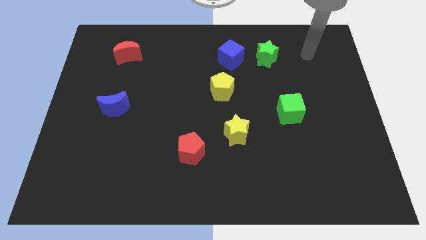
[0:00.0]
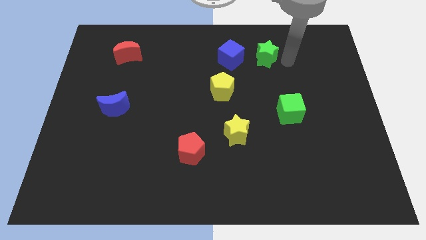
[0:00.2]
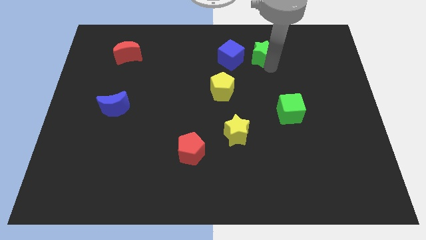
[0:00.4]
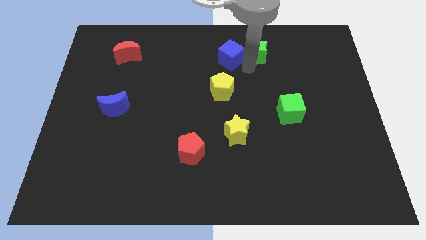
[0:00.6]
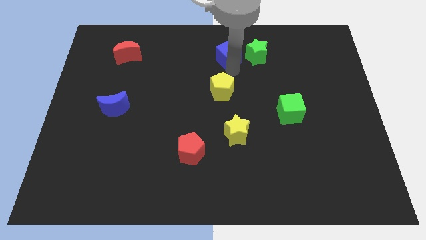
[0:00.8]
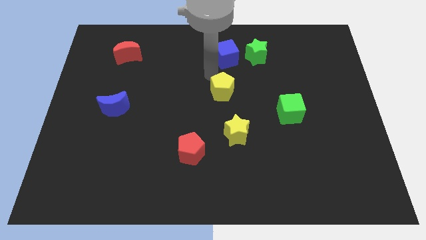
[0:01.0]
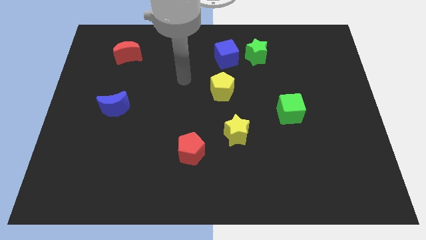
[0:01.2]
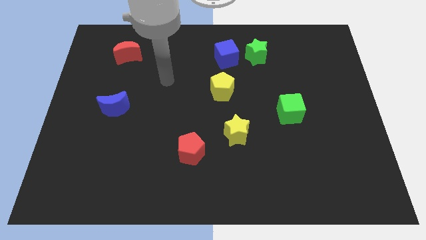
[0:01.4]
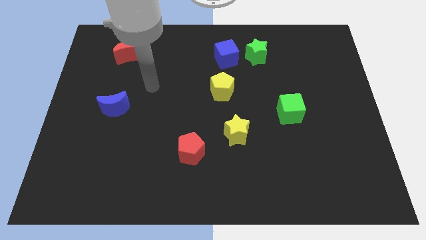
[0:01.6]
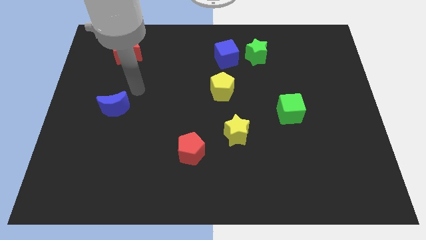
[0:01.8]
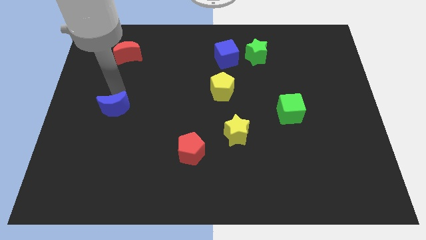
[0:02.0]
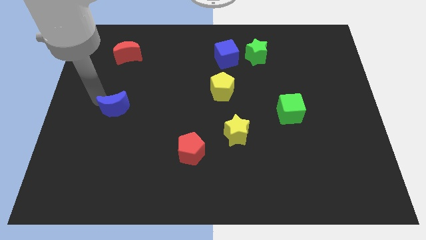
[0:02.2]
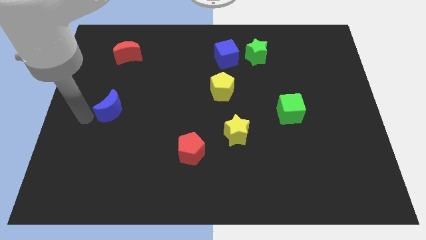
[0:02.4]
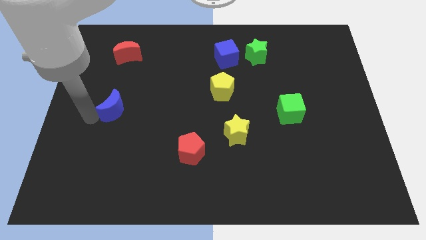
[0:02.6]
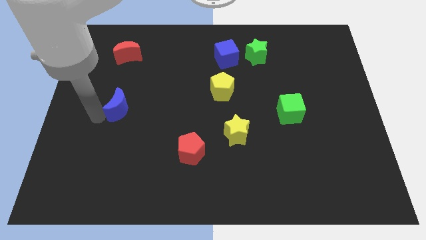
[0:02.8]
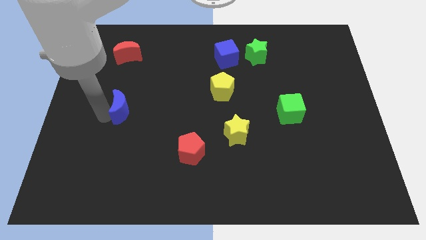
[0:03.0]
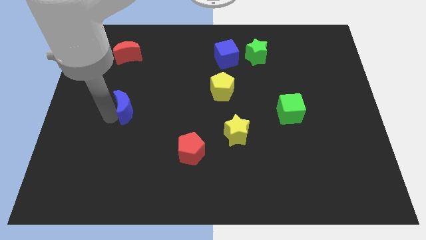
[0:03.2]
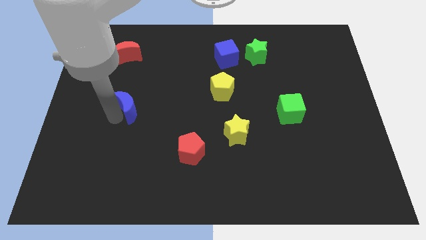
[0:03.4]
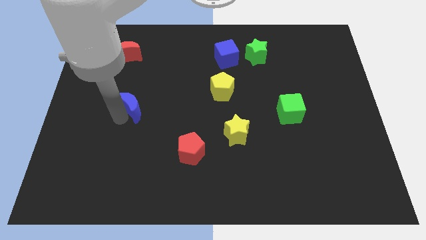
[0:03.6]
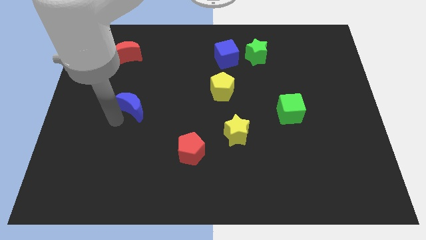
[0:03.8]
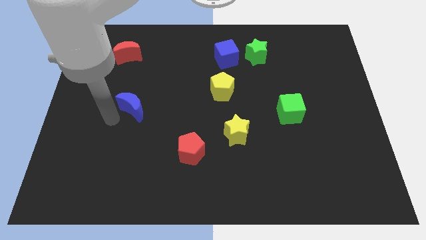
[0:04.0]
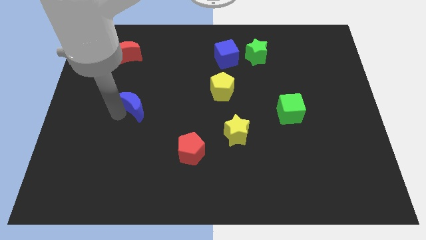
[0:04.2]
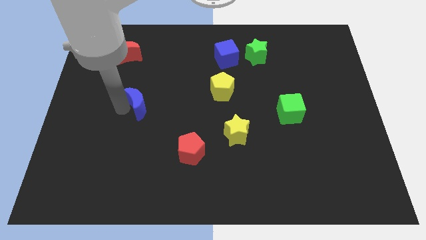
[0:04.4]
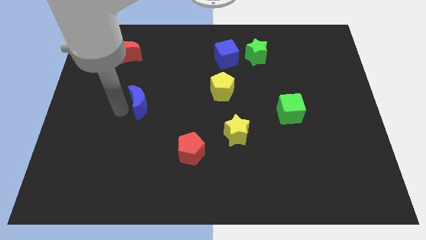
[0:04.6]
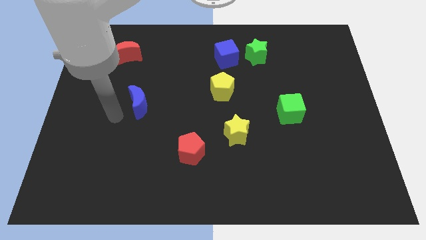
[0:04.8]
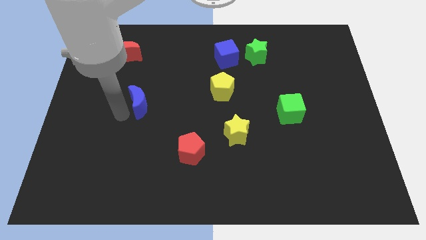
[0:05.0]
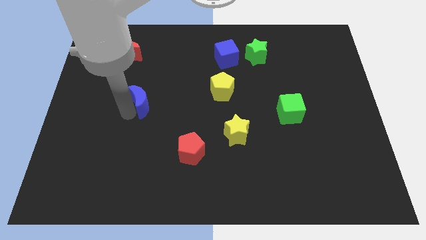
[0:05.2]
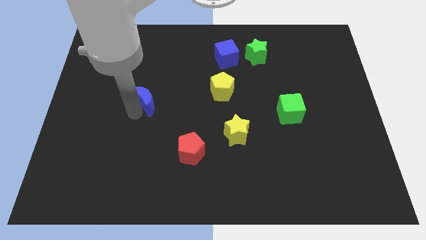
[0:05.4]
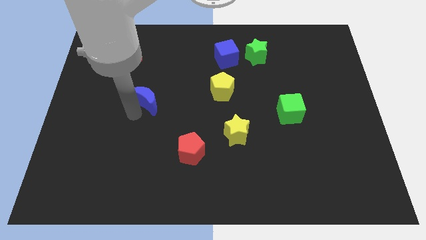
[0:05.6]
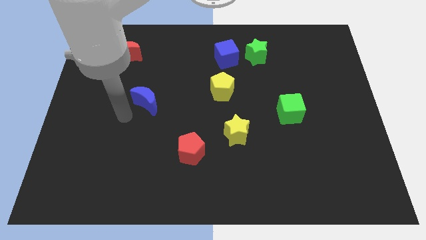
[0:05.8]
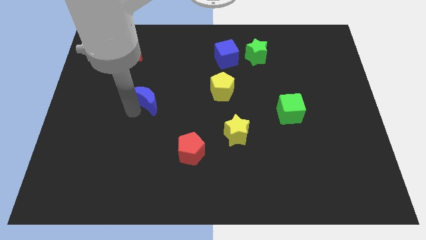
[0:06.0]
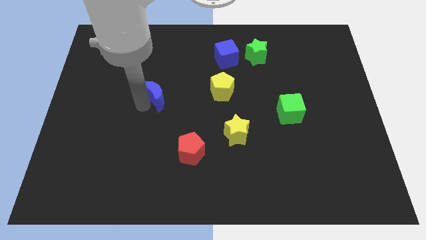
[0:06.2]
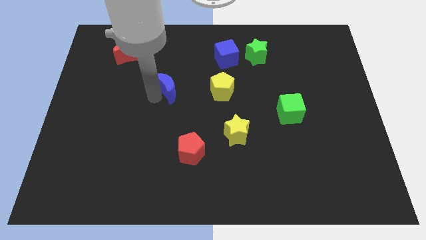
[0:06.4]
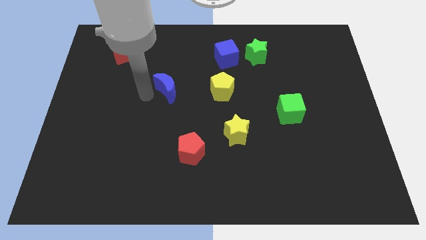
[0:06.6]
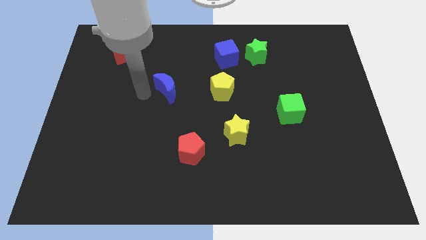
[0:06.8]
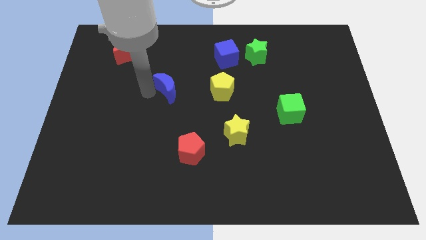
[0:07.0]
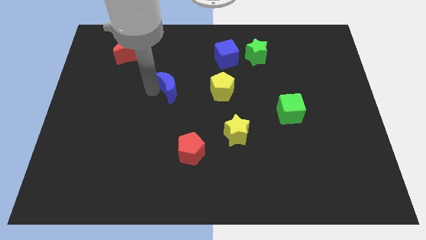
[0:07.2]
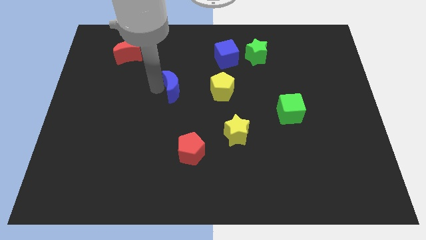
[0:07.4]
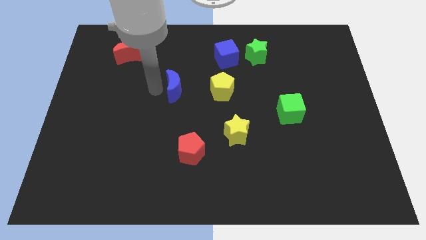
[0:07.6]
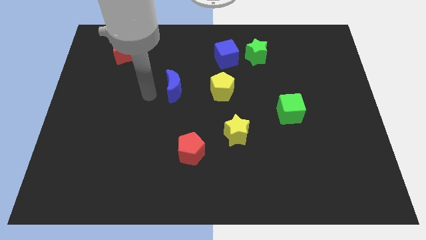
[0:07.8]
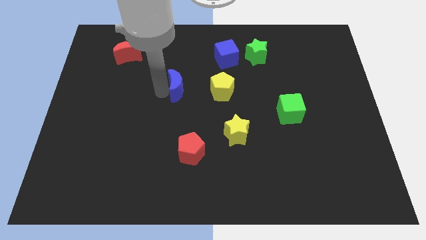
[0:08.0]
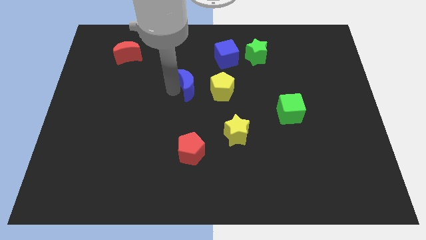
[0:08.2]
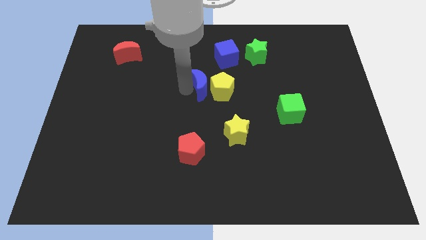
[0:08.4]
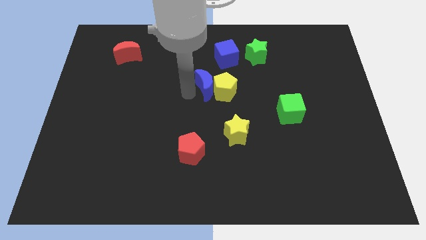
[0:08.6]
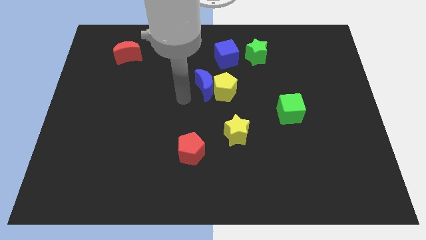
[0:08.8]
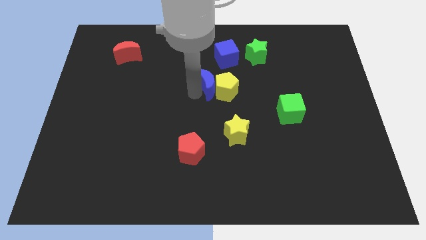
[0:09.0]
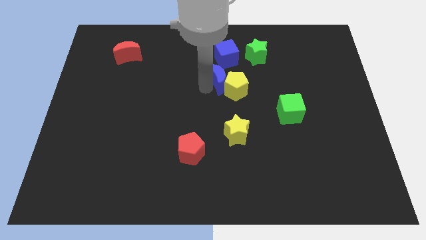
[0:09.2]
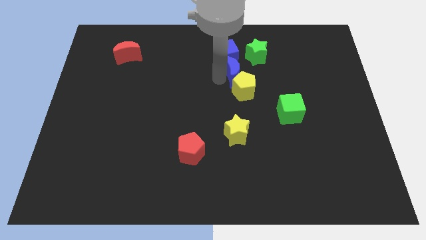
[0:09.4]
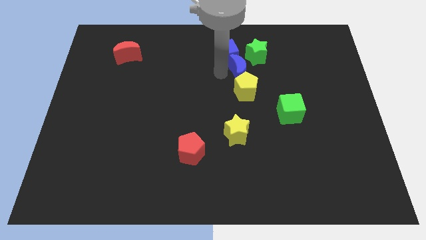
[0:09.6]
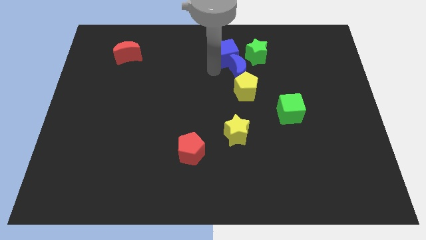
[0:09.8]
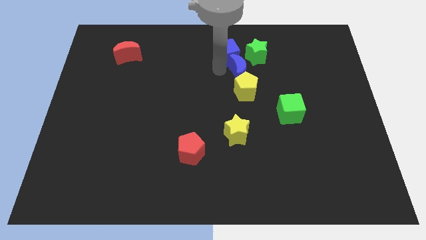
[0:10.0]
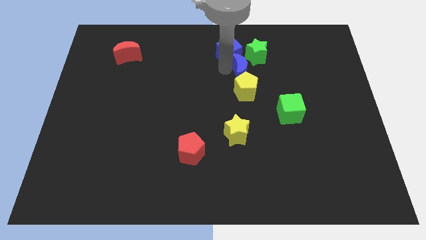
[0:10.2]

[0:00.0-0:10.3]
put the blue moon diagonally up and to the right of the yellow pentagon

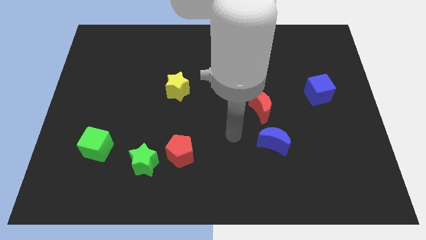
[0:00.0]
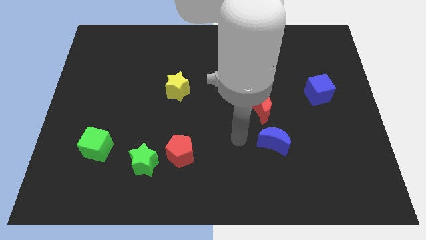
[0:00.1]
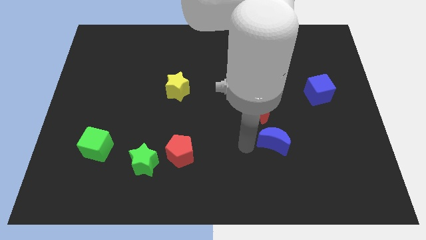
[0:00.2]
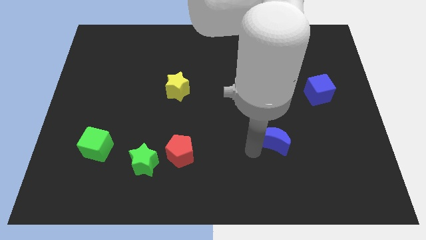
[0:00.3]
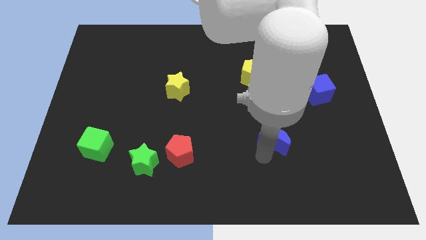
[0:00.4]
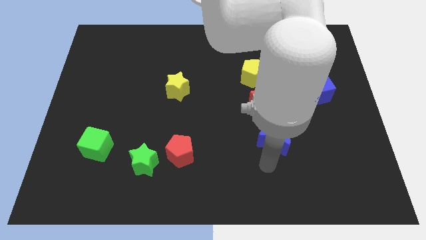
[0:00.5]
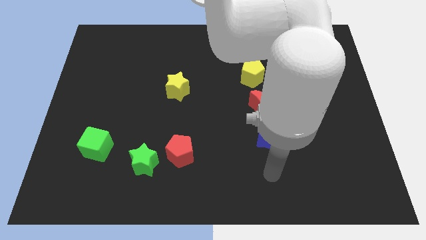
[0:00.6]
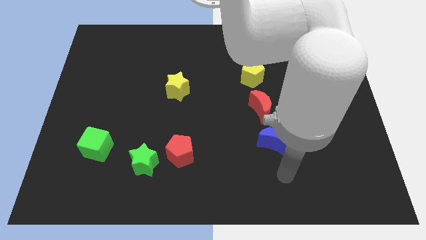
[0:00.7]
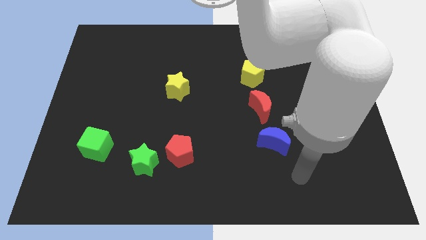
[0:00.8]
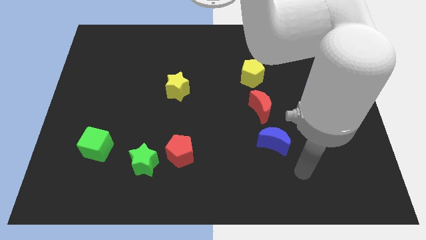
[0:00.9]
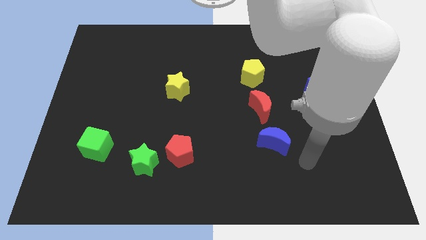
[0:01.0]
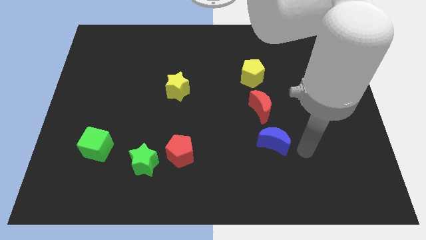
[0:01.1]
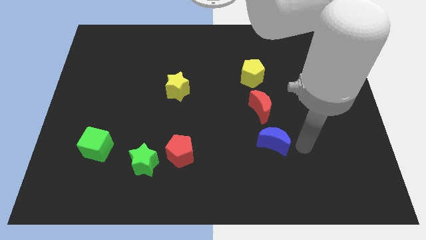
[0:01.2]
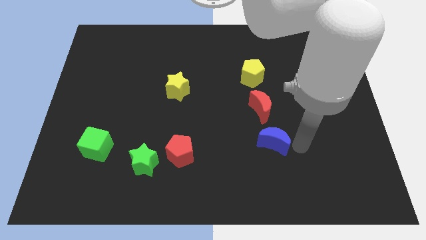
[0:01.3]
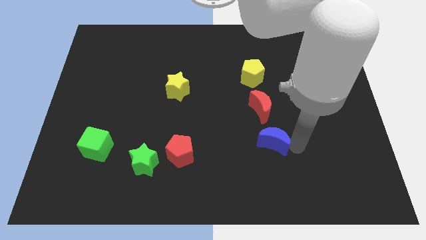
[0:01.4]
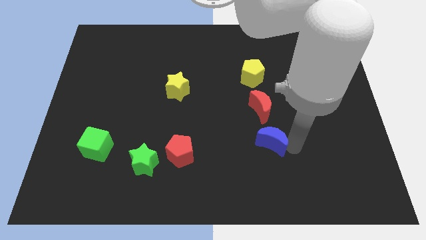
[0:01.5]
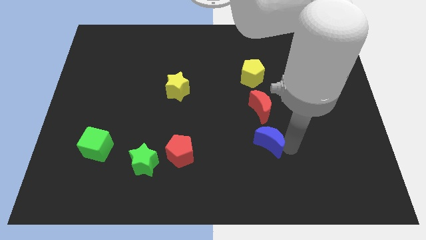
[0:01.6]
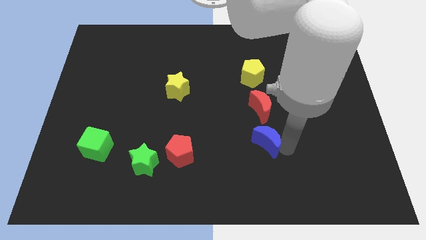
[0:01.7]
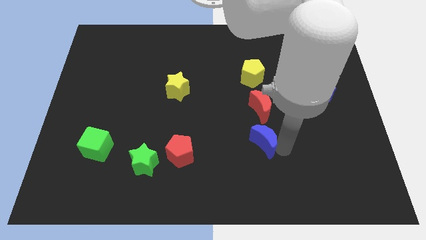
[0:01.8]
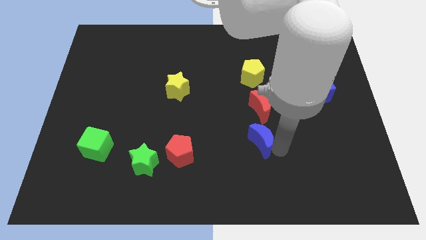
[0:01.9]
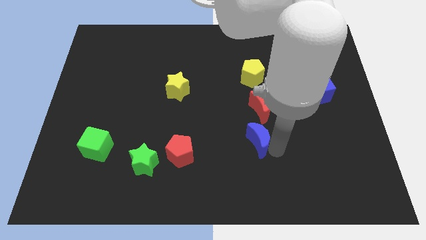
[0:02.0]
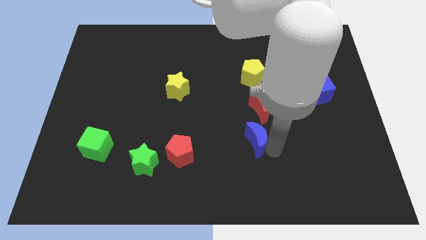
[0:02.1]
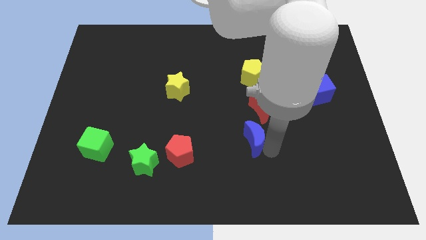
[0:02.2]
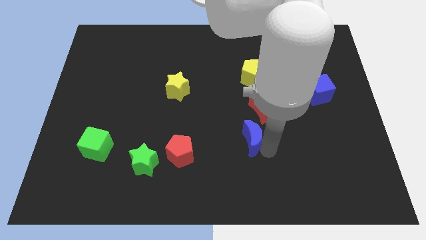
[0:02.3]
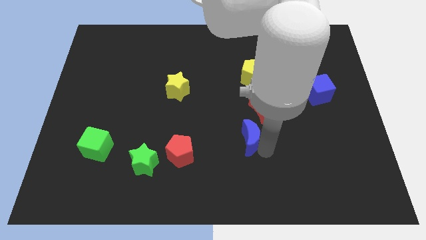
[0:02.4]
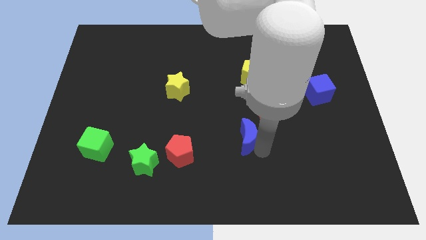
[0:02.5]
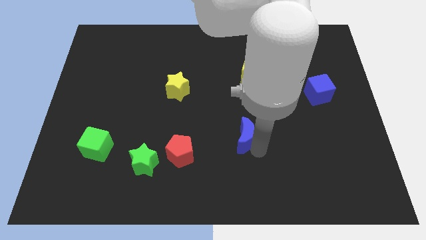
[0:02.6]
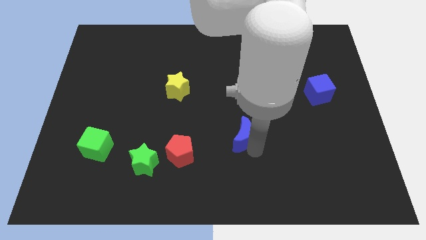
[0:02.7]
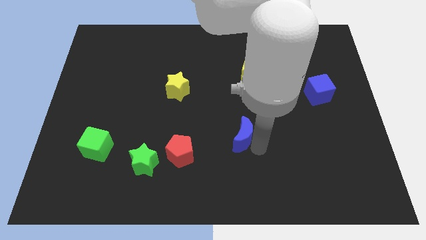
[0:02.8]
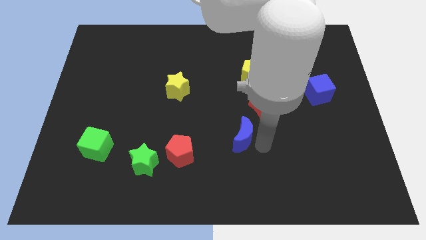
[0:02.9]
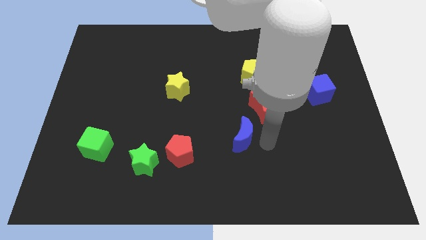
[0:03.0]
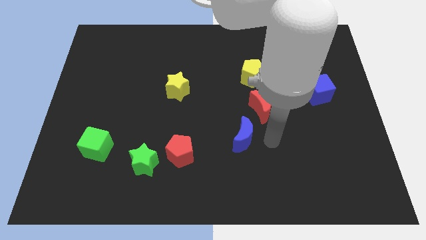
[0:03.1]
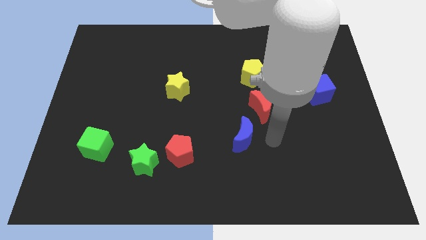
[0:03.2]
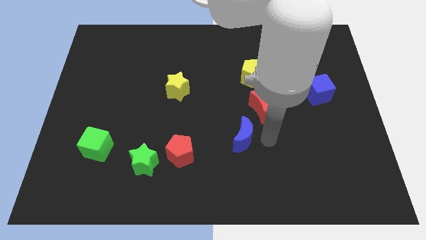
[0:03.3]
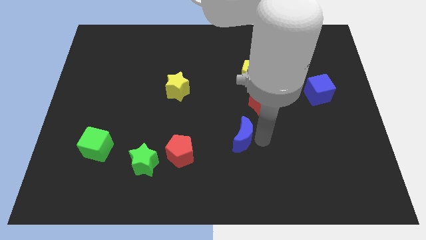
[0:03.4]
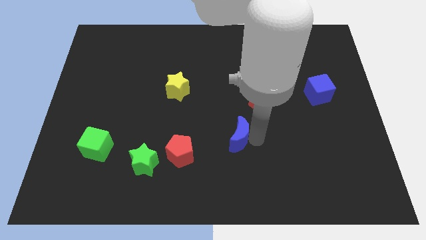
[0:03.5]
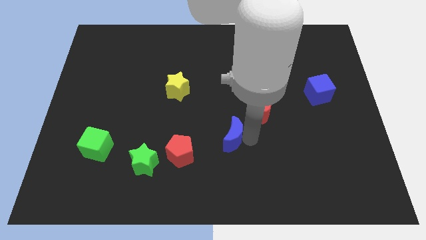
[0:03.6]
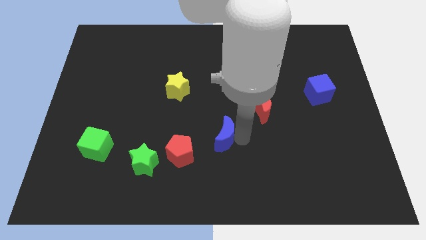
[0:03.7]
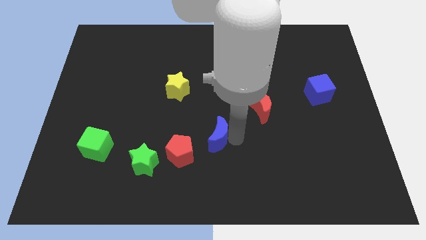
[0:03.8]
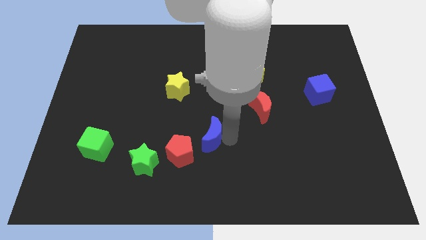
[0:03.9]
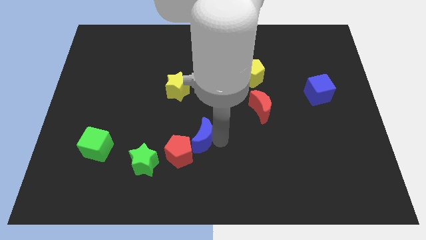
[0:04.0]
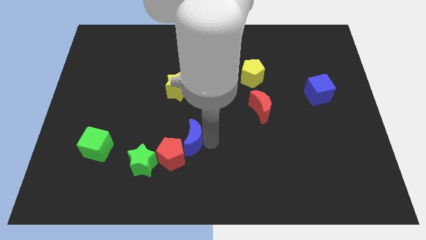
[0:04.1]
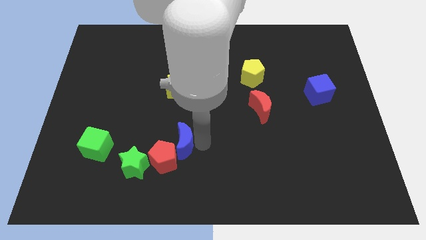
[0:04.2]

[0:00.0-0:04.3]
slide the blue moon below the yellow star
